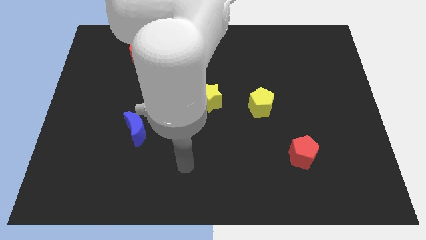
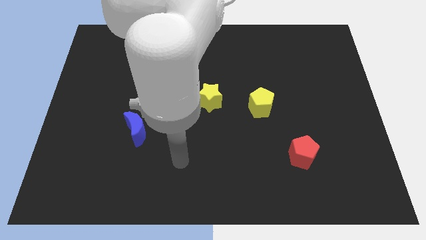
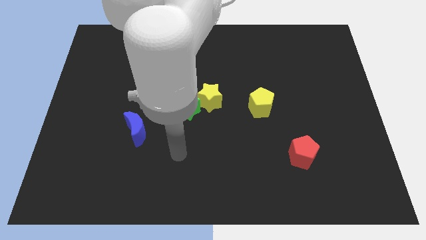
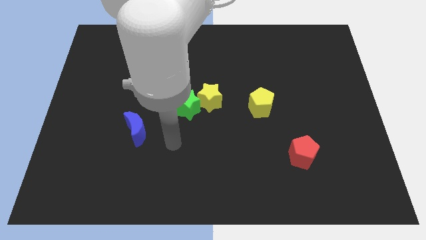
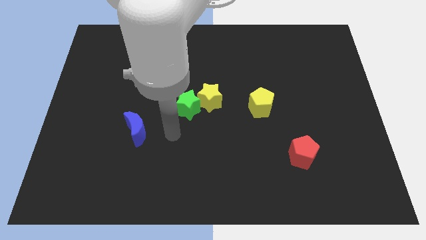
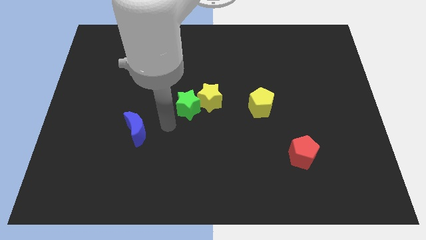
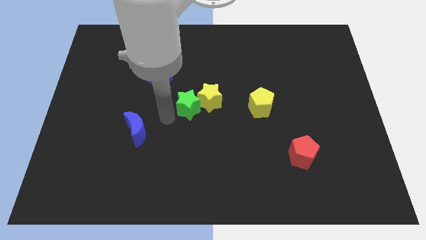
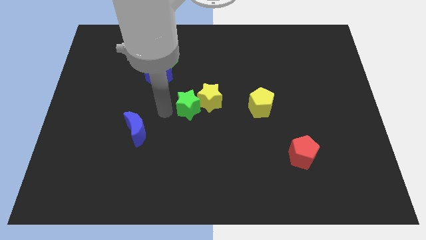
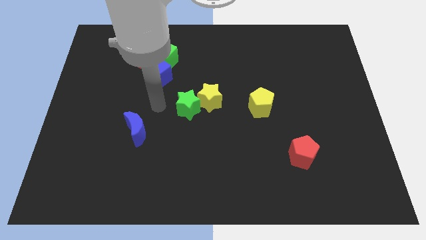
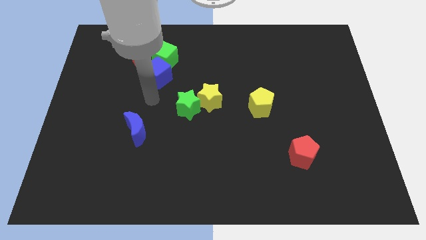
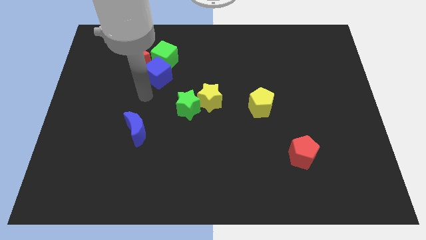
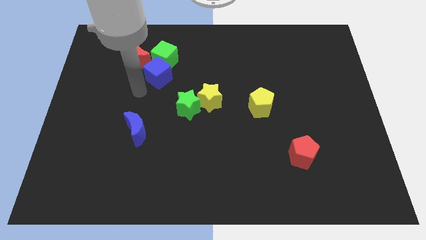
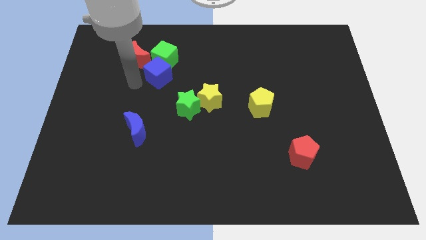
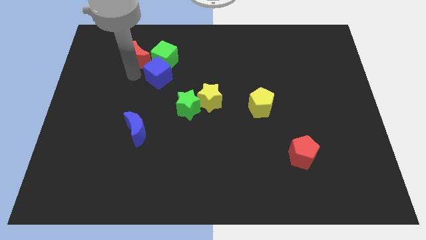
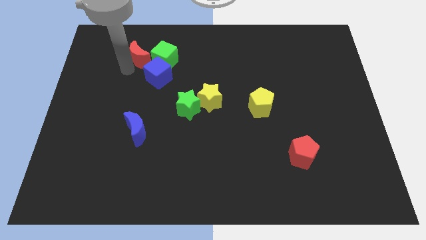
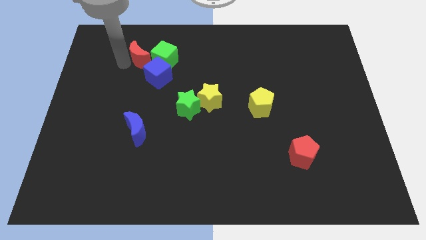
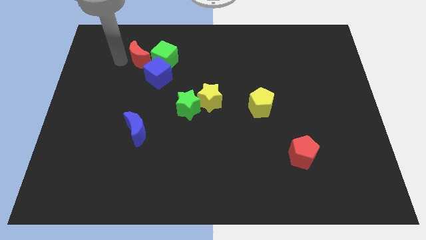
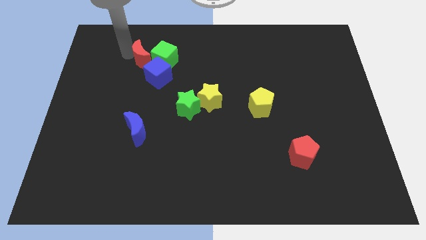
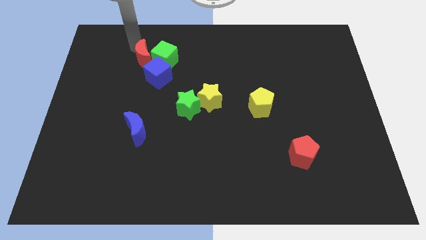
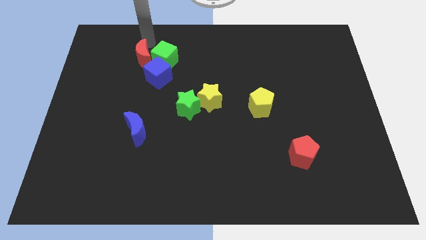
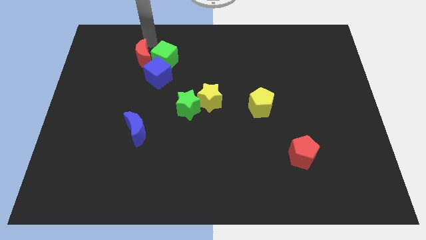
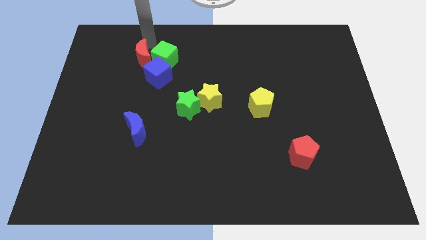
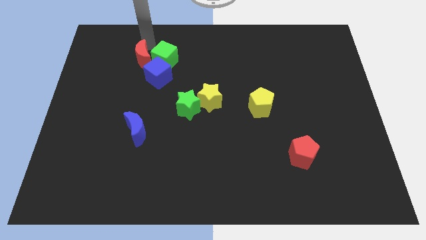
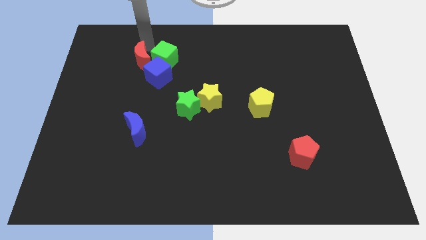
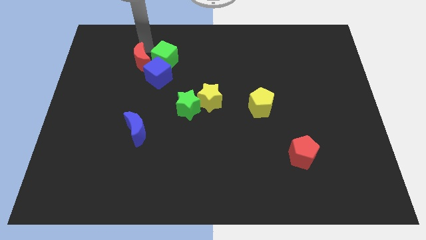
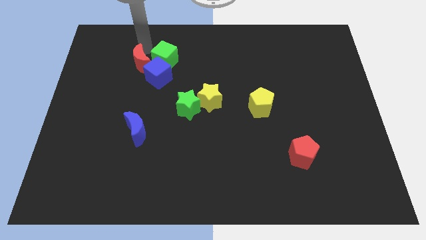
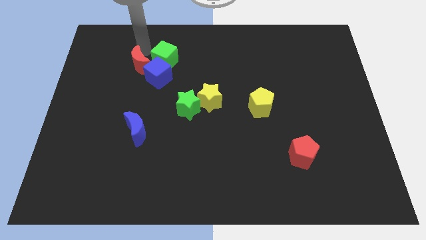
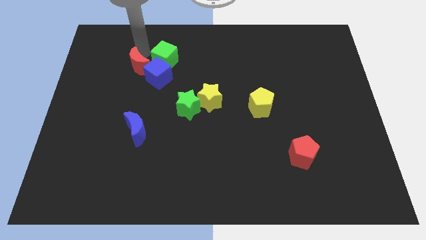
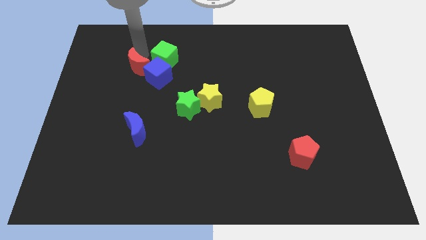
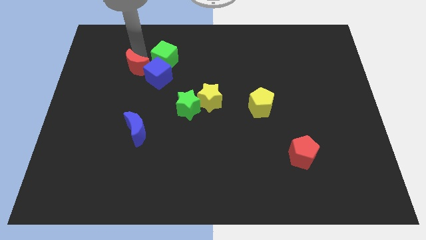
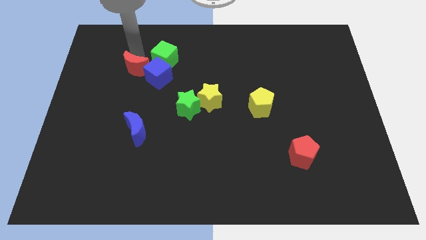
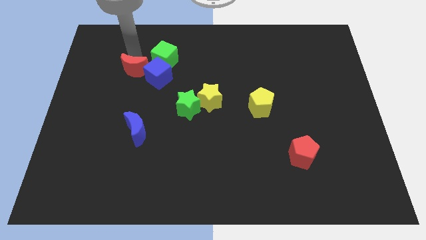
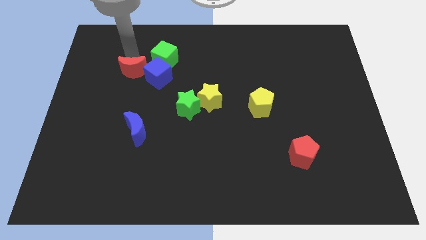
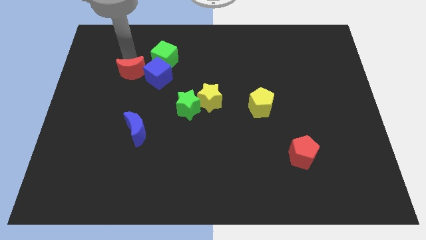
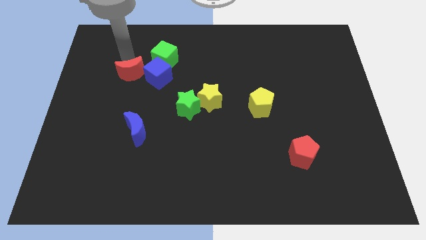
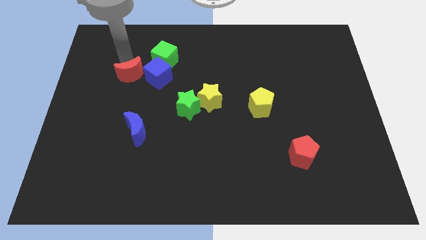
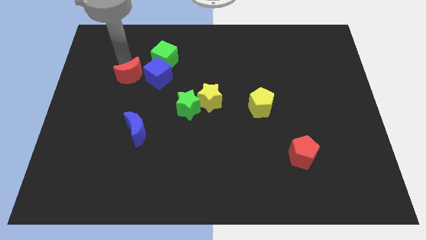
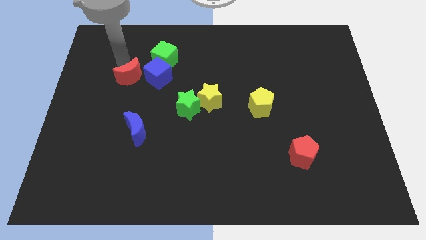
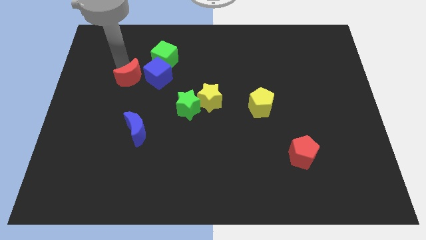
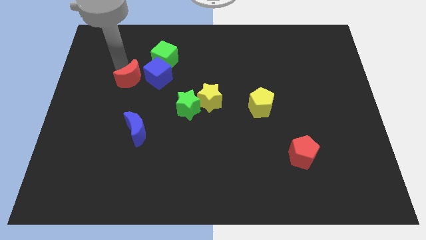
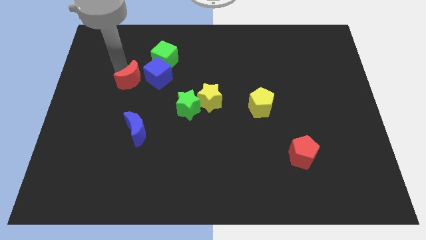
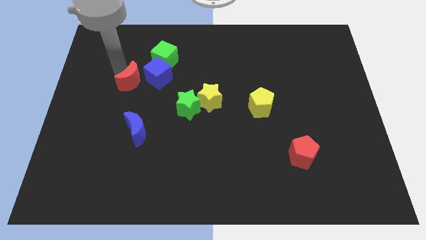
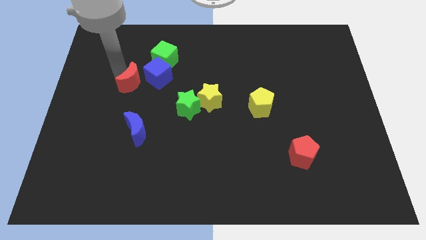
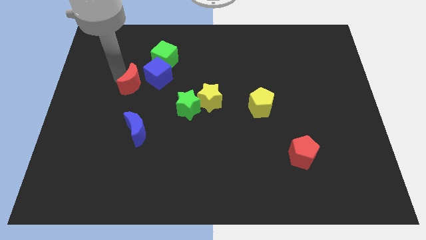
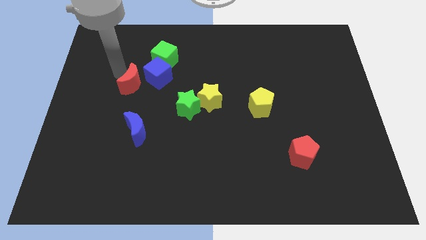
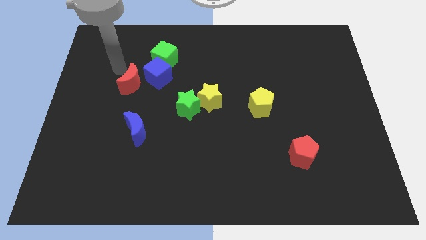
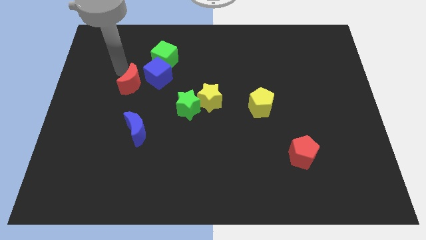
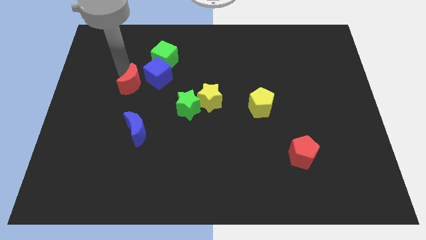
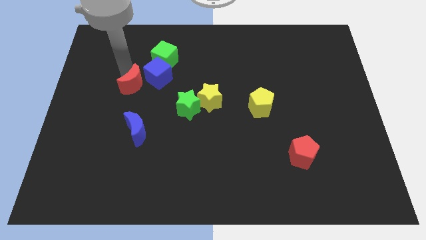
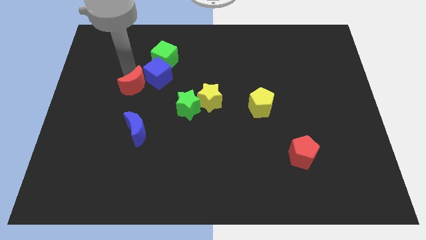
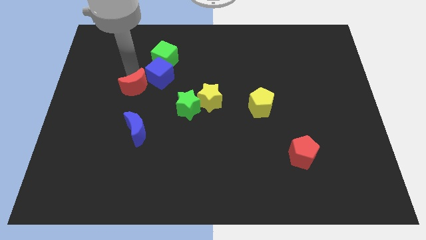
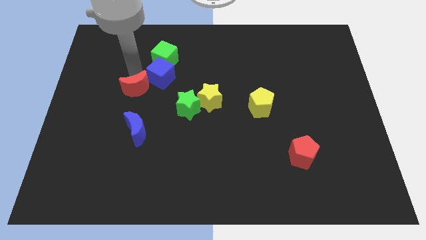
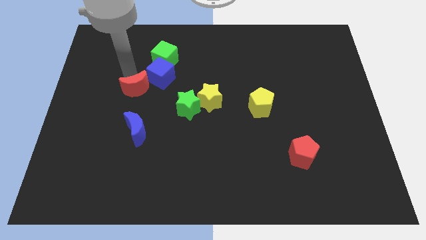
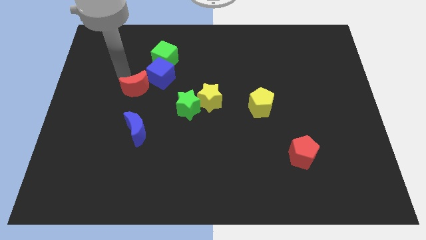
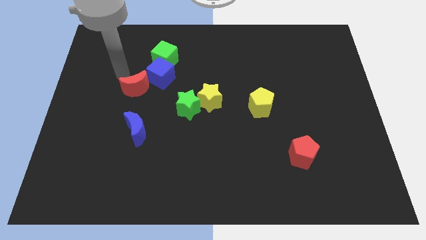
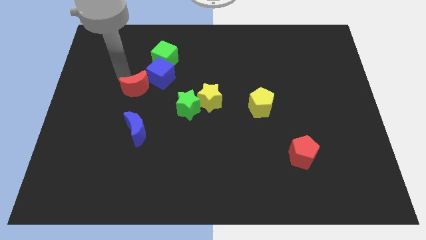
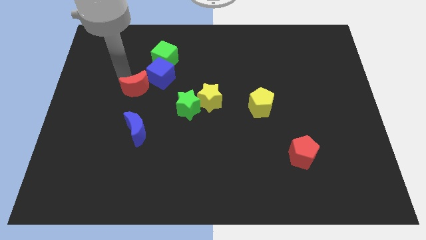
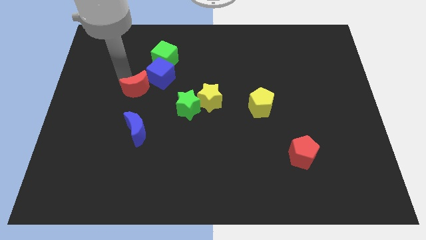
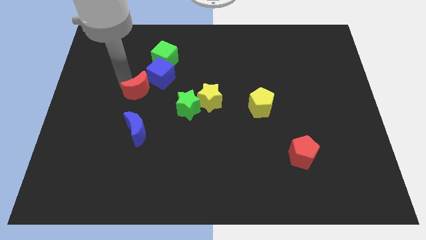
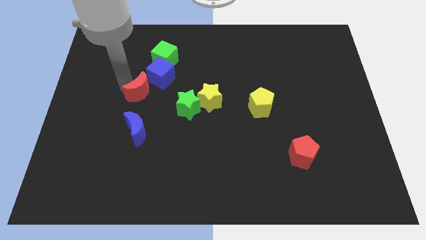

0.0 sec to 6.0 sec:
push the red moon below the blue cube

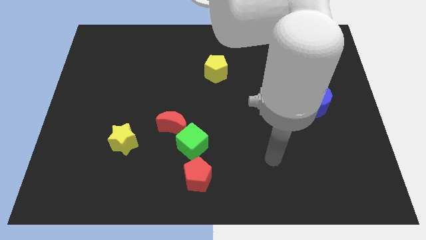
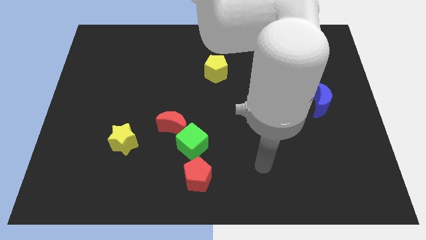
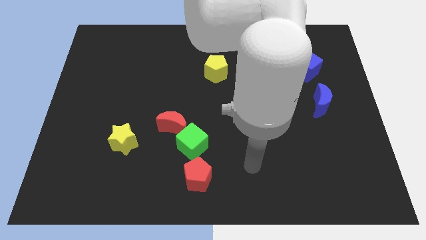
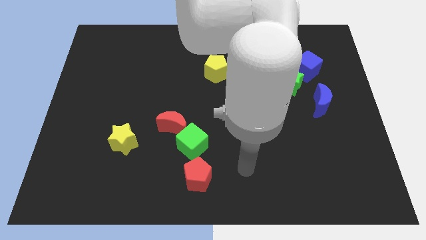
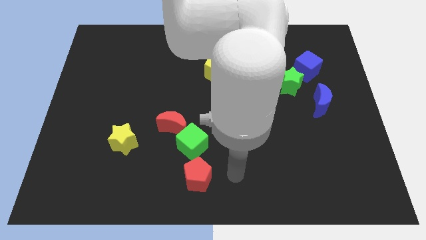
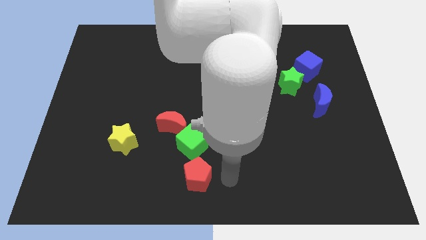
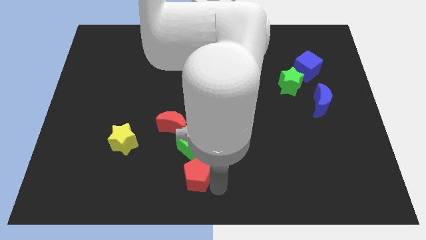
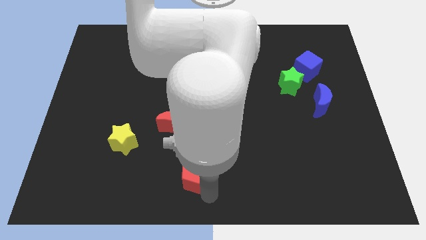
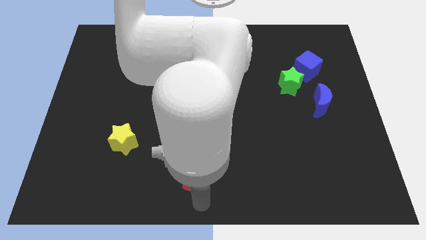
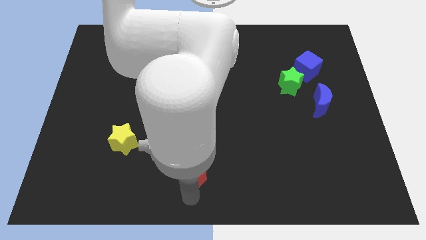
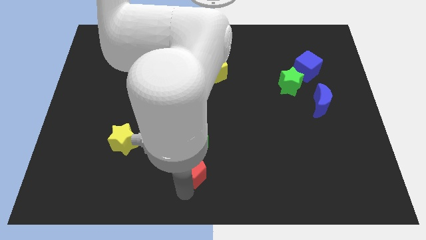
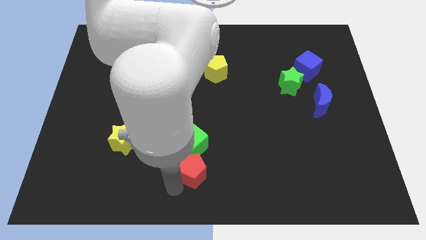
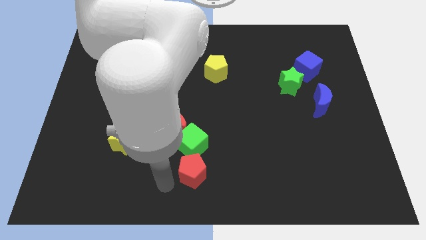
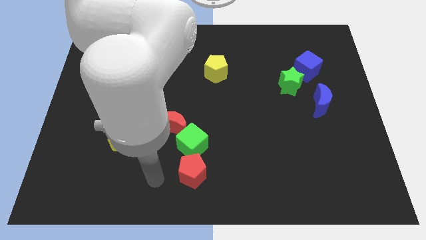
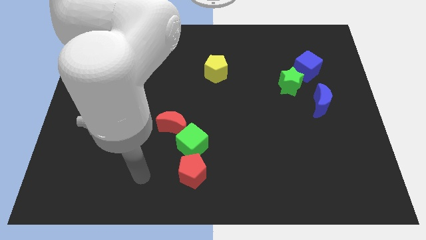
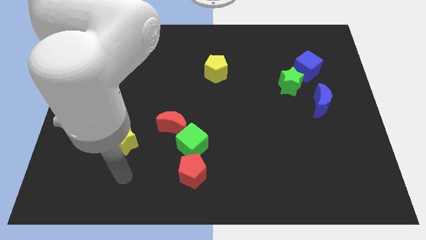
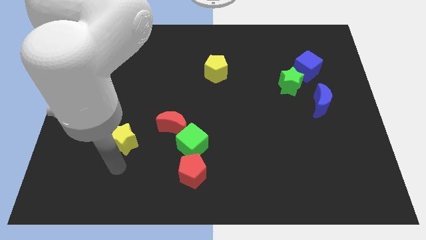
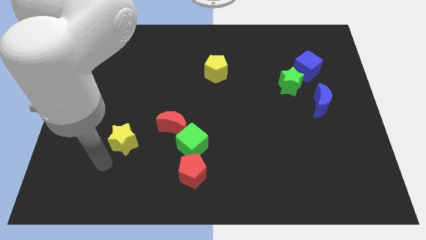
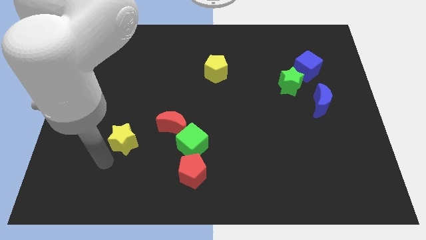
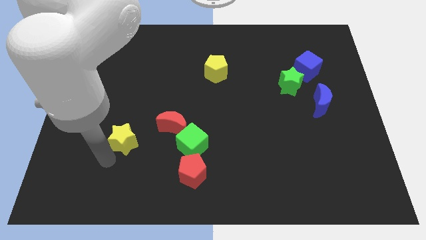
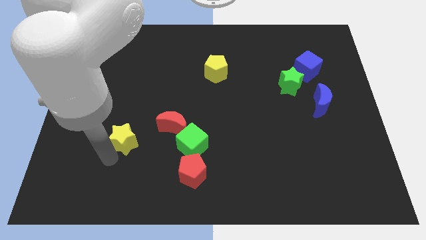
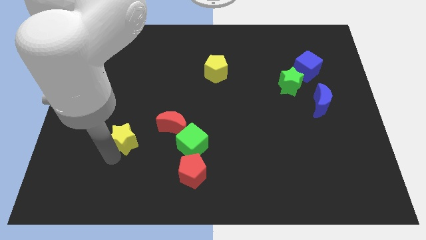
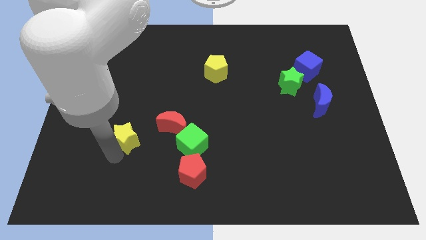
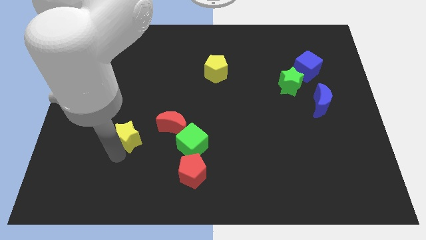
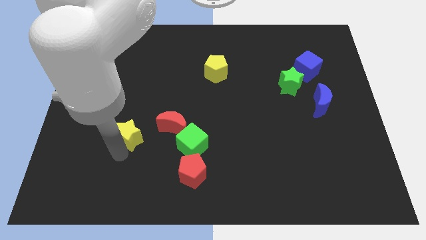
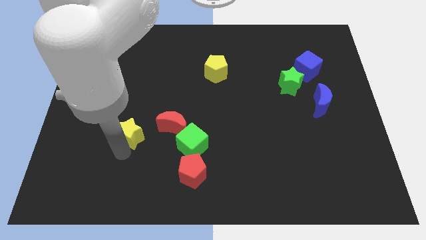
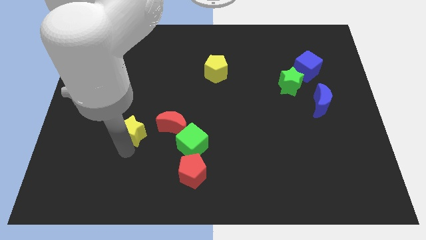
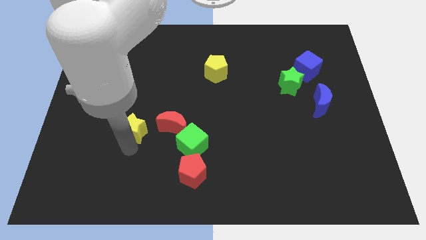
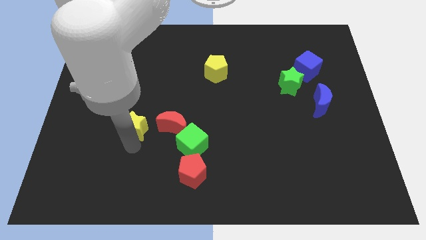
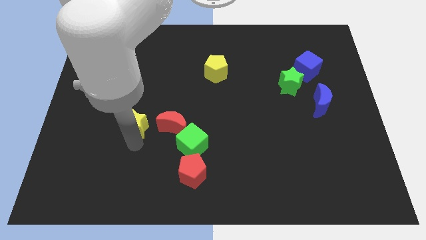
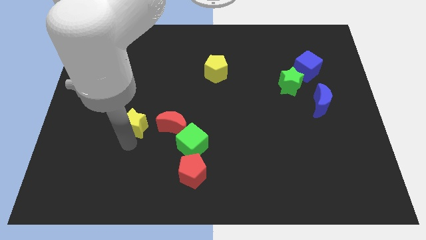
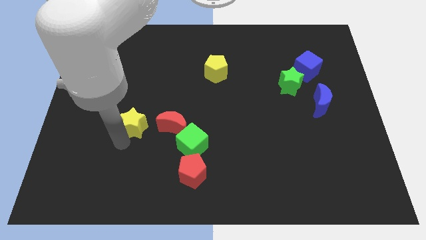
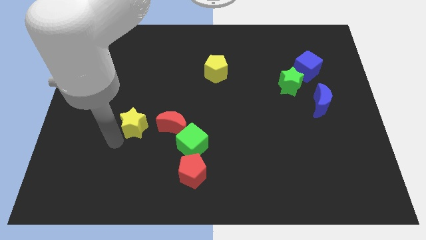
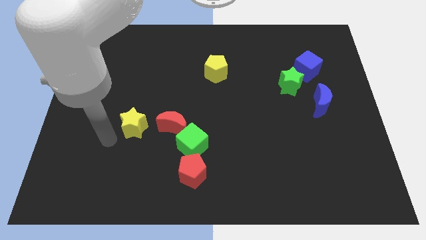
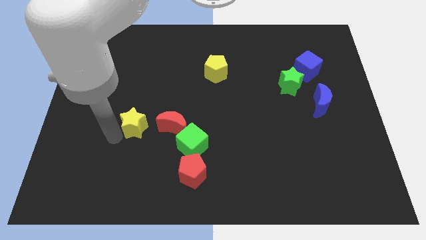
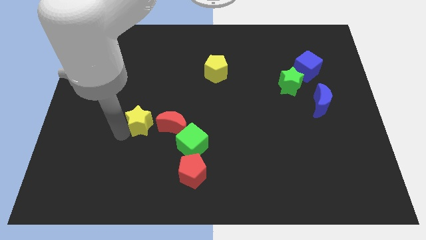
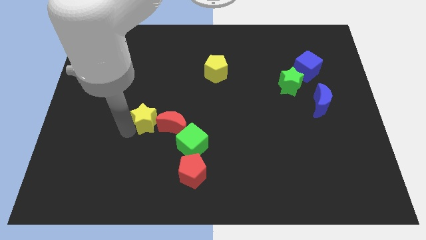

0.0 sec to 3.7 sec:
put the yellow star diagonally up and to the left of the green cube
